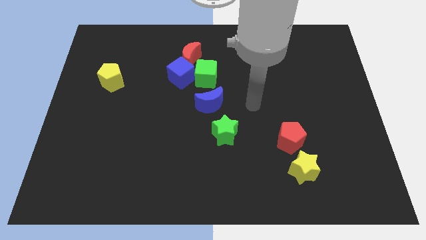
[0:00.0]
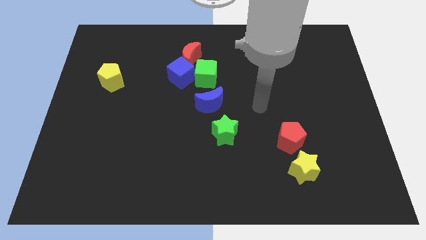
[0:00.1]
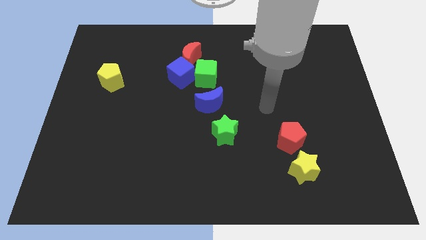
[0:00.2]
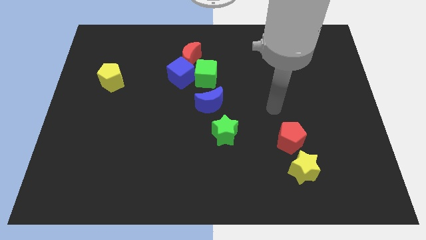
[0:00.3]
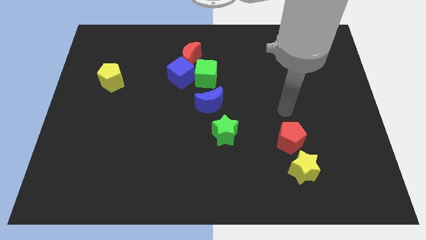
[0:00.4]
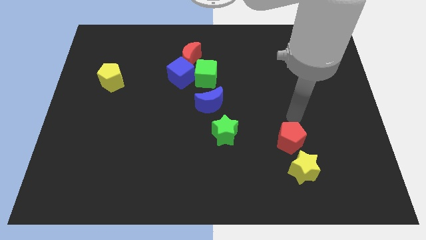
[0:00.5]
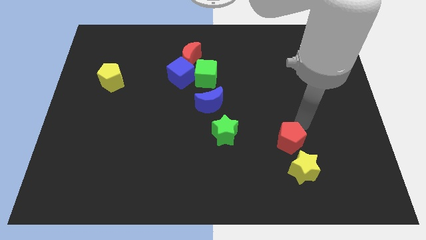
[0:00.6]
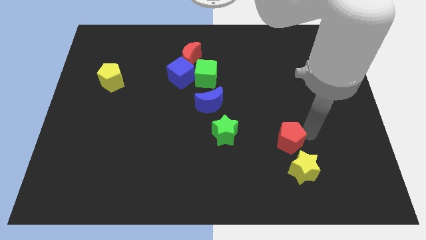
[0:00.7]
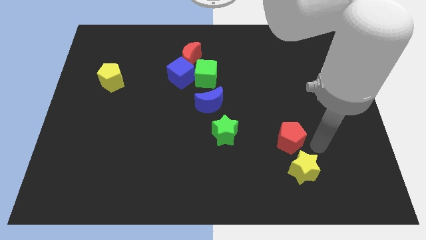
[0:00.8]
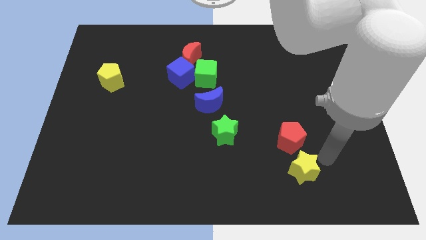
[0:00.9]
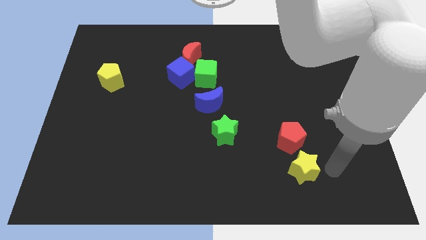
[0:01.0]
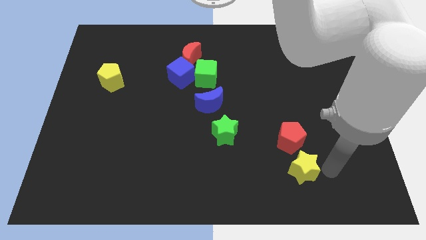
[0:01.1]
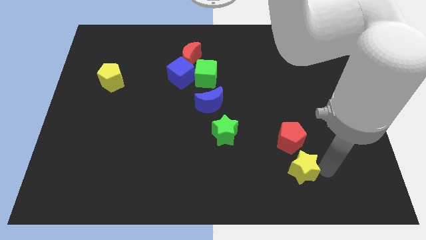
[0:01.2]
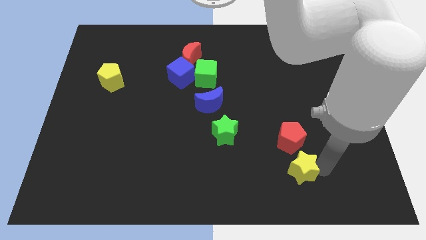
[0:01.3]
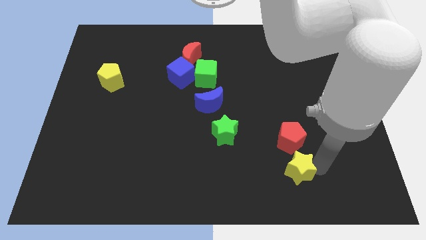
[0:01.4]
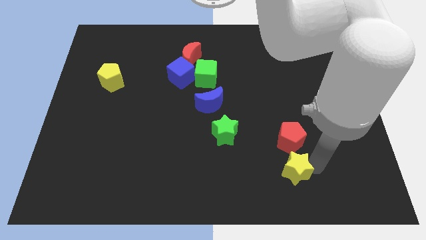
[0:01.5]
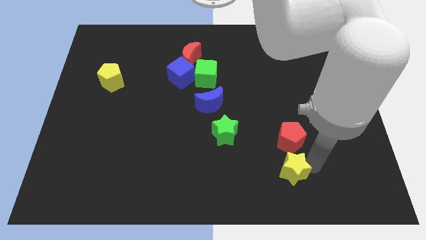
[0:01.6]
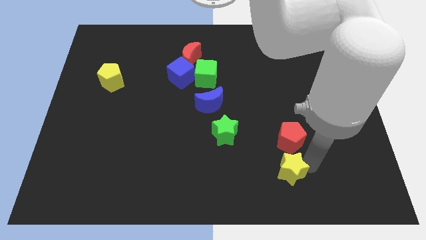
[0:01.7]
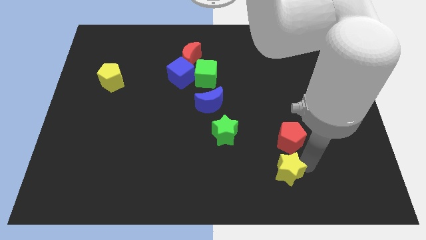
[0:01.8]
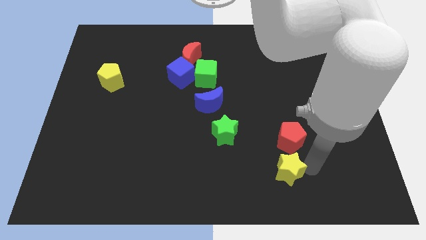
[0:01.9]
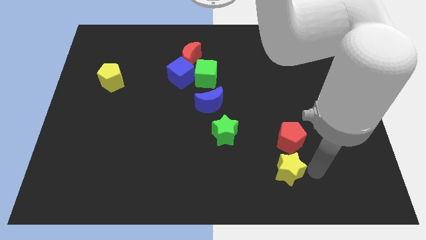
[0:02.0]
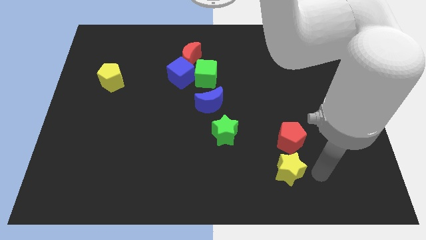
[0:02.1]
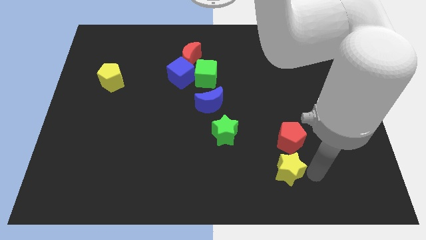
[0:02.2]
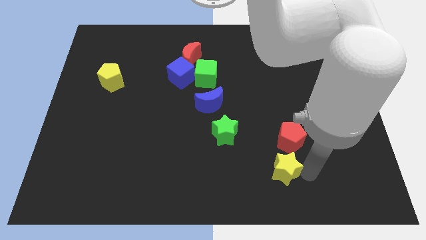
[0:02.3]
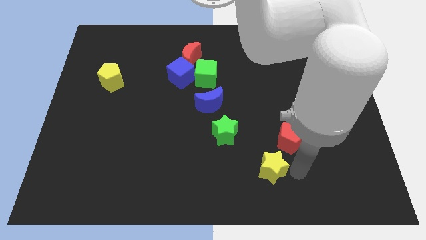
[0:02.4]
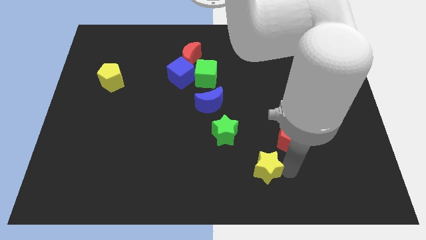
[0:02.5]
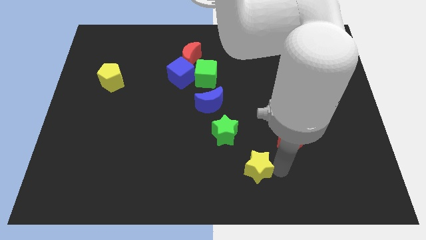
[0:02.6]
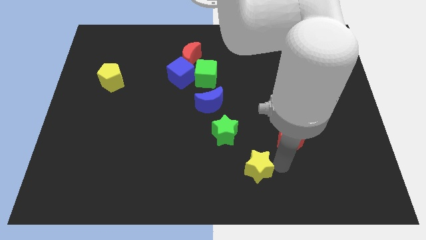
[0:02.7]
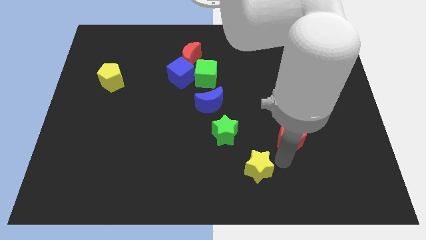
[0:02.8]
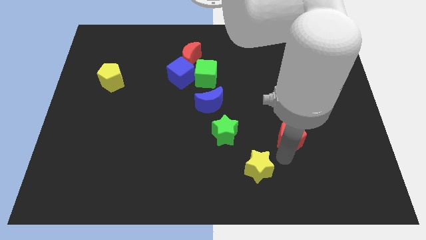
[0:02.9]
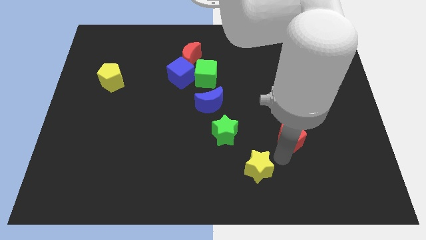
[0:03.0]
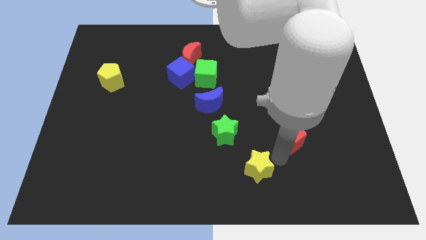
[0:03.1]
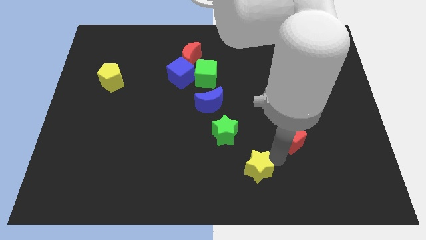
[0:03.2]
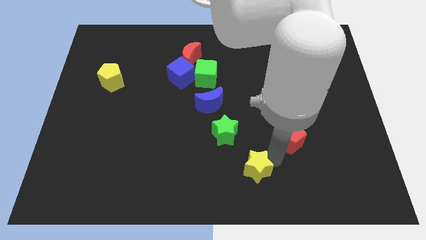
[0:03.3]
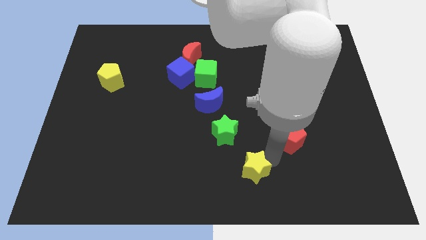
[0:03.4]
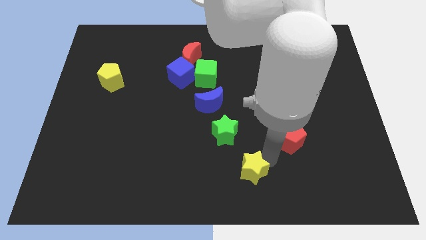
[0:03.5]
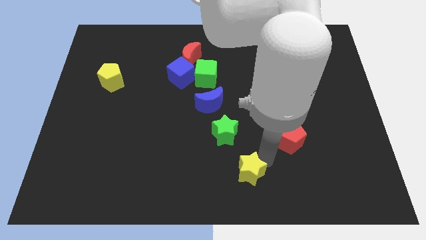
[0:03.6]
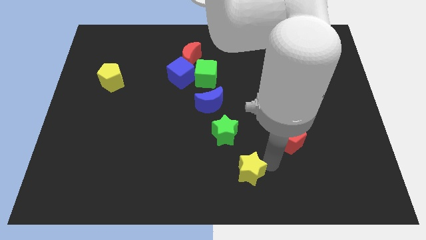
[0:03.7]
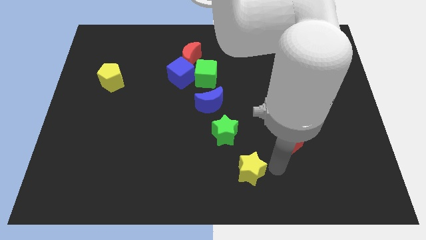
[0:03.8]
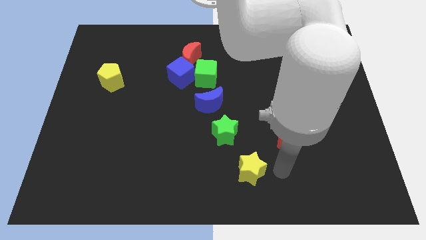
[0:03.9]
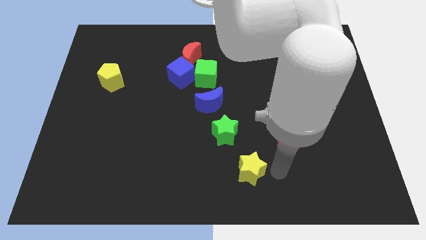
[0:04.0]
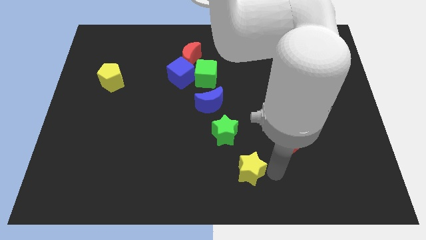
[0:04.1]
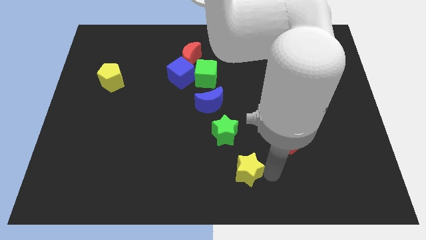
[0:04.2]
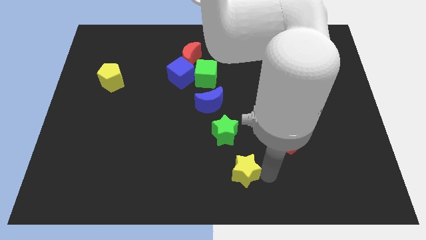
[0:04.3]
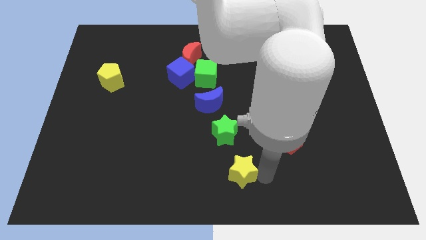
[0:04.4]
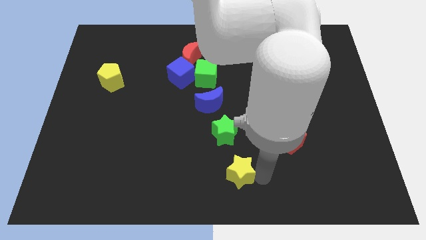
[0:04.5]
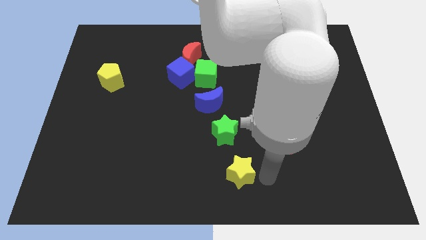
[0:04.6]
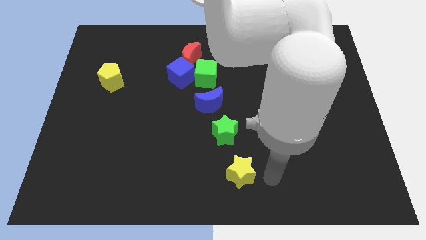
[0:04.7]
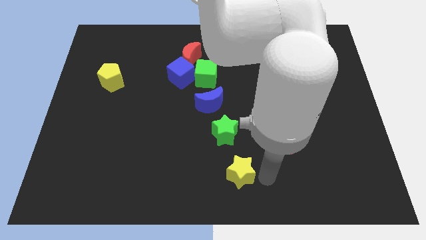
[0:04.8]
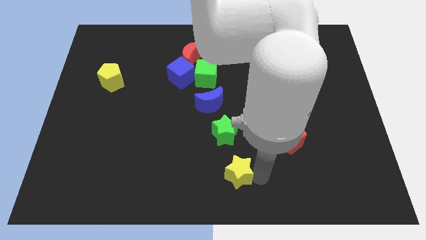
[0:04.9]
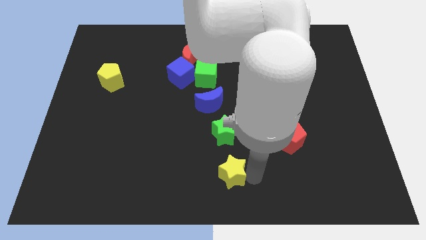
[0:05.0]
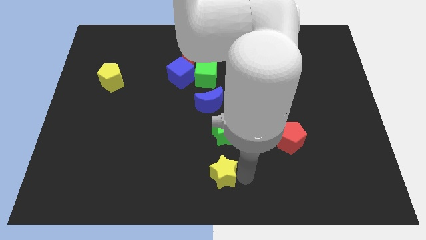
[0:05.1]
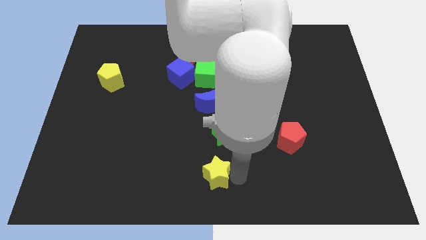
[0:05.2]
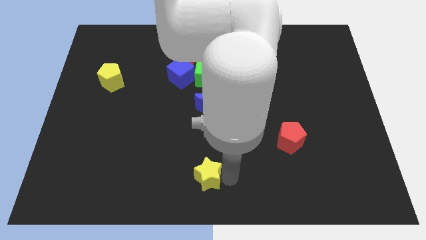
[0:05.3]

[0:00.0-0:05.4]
slide the yellow star to the left

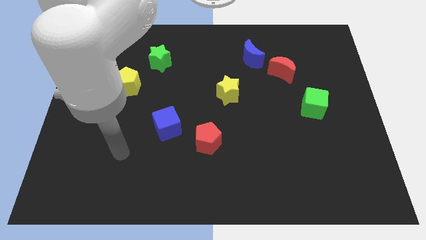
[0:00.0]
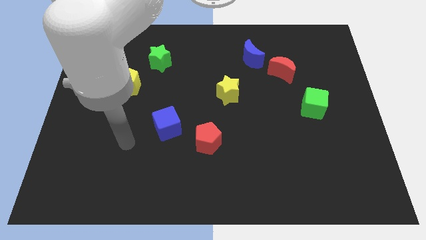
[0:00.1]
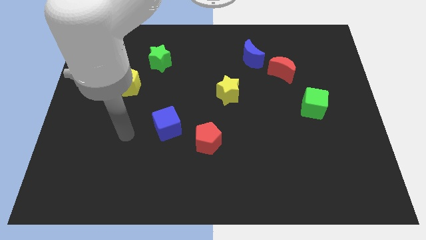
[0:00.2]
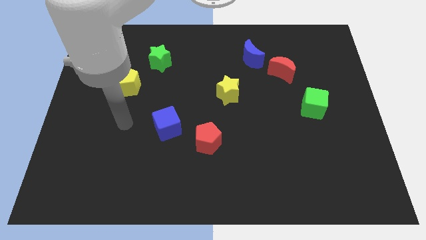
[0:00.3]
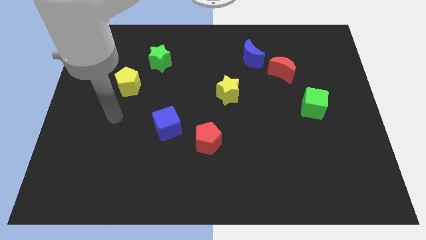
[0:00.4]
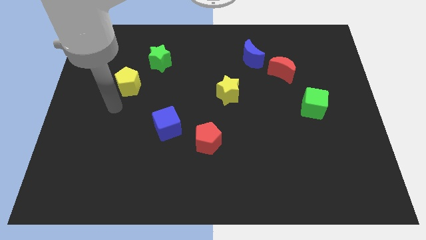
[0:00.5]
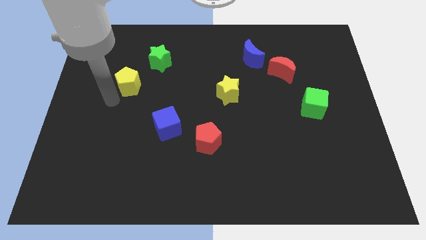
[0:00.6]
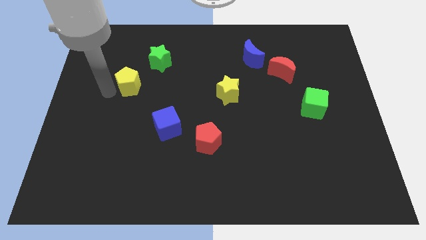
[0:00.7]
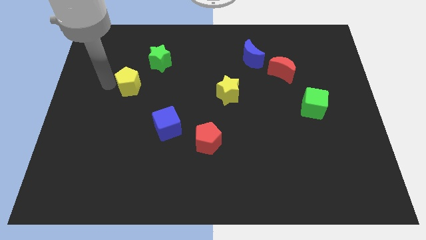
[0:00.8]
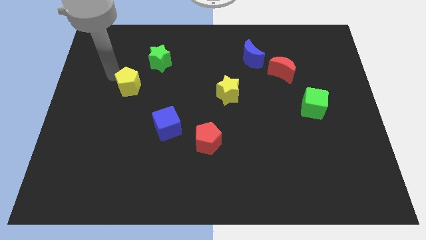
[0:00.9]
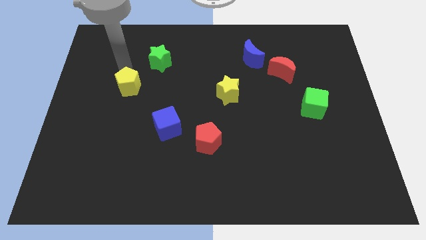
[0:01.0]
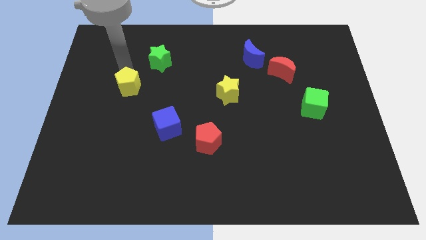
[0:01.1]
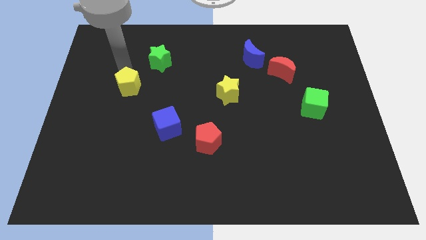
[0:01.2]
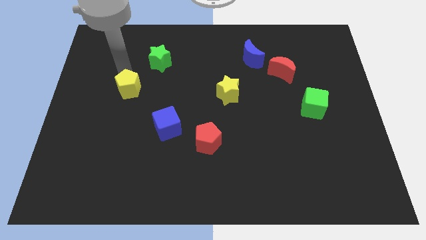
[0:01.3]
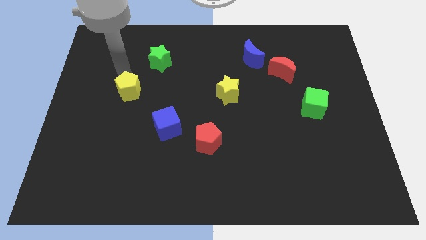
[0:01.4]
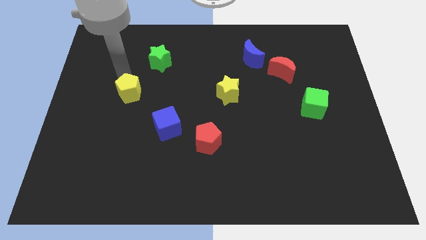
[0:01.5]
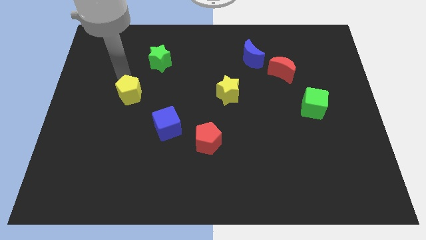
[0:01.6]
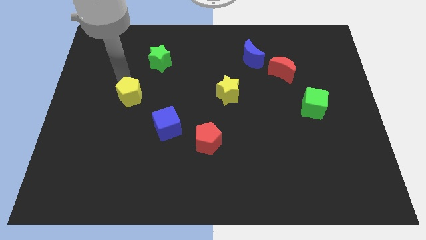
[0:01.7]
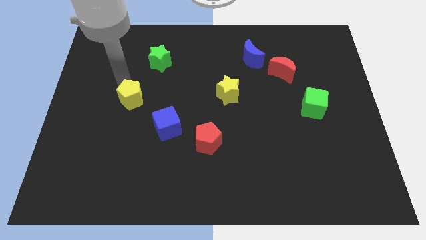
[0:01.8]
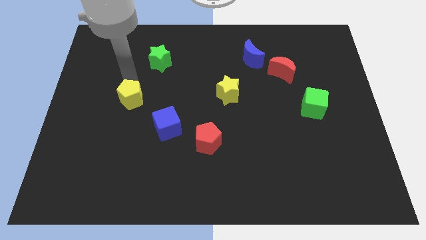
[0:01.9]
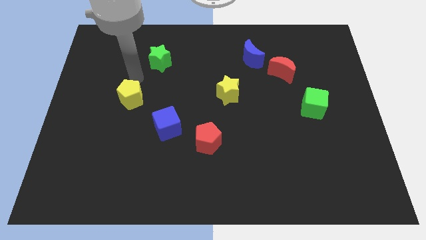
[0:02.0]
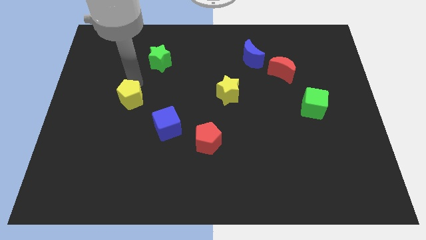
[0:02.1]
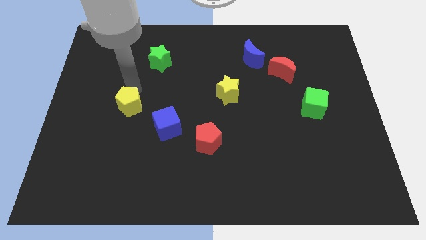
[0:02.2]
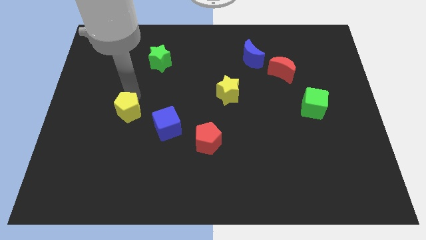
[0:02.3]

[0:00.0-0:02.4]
slide the yellow pentagon down a little bit

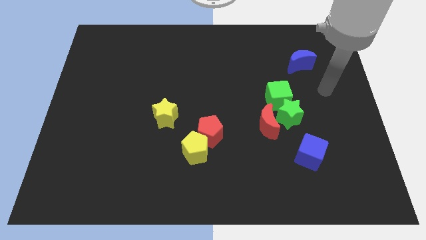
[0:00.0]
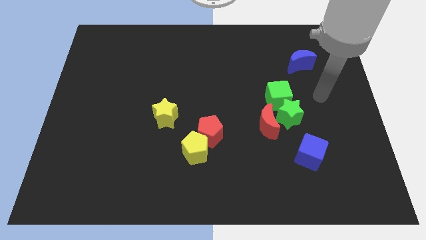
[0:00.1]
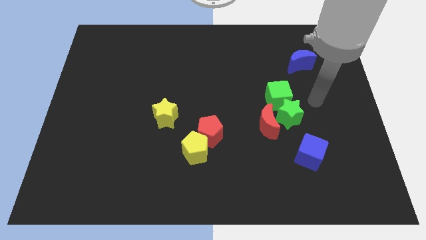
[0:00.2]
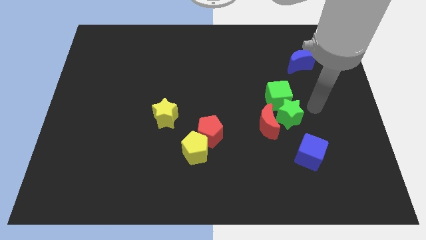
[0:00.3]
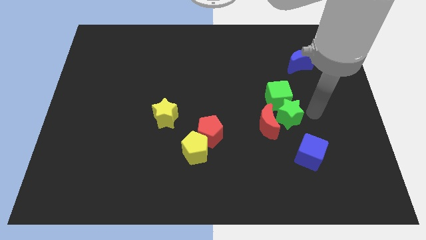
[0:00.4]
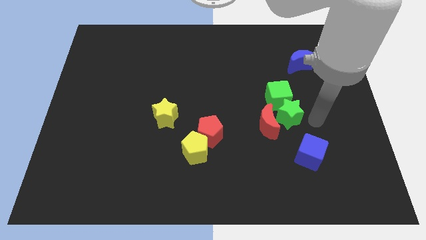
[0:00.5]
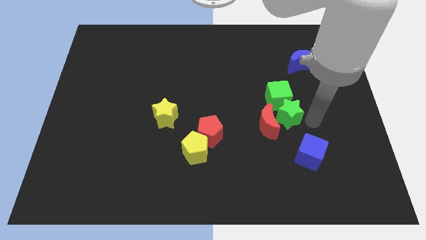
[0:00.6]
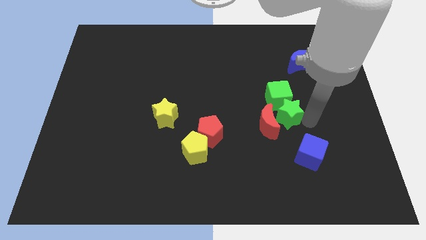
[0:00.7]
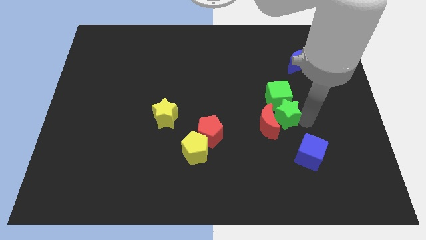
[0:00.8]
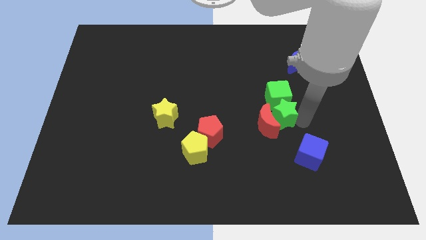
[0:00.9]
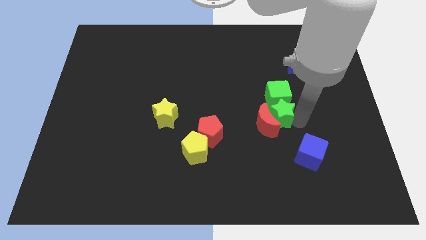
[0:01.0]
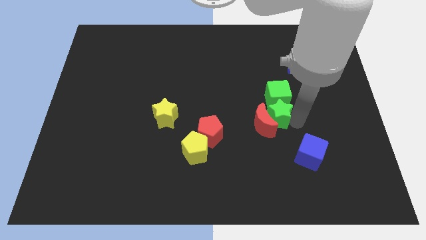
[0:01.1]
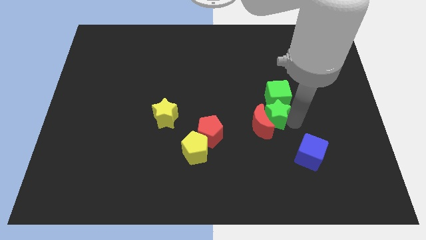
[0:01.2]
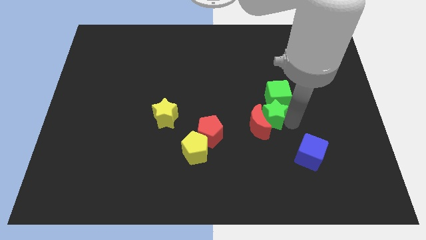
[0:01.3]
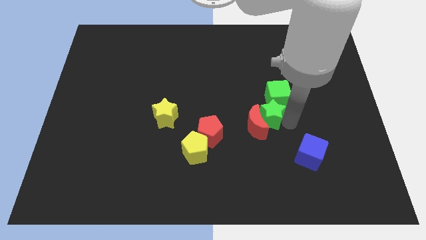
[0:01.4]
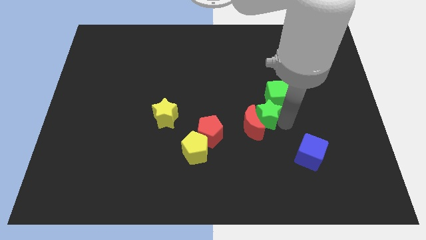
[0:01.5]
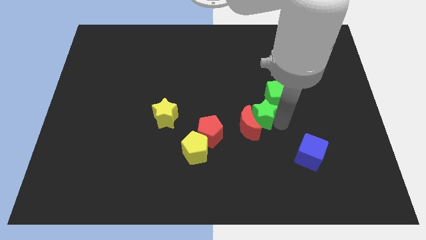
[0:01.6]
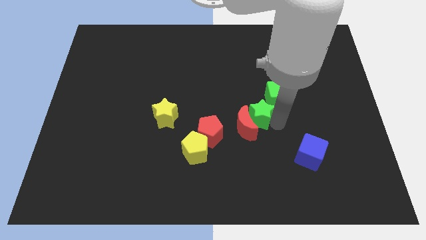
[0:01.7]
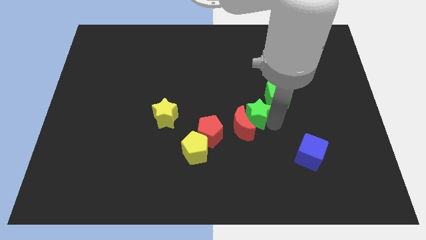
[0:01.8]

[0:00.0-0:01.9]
move the green star a little to the left
